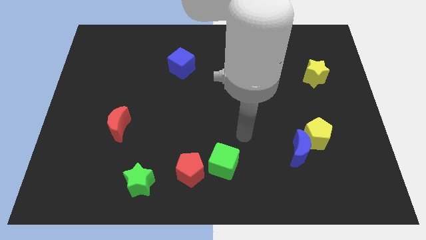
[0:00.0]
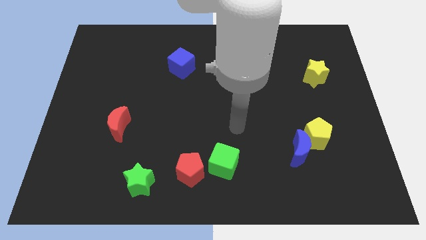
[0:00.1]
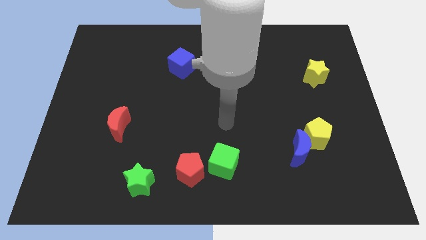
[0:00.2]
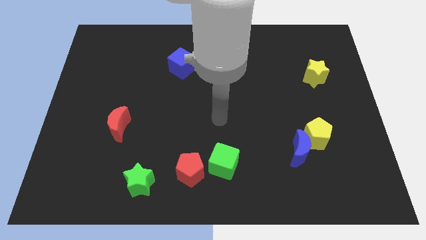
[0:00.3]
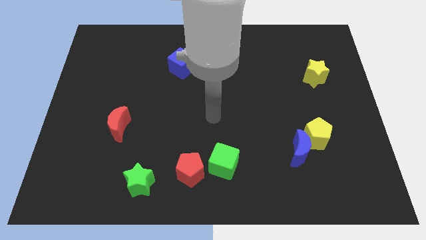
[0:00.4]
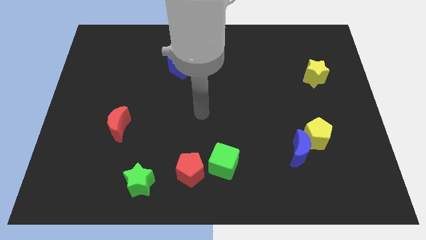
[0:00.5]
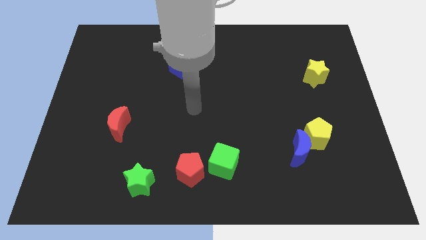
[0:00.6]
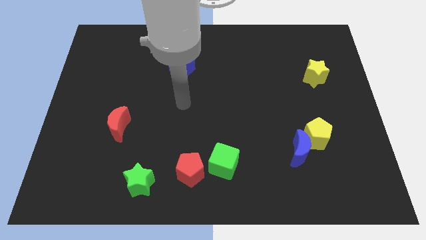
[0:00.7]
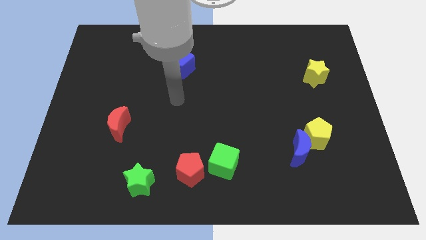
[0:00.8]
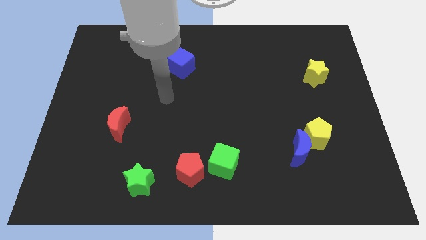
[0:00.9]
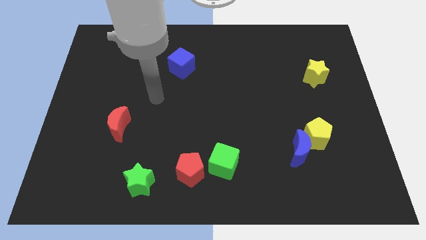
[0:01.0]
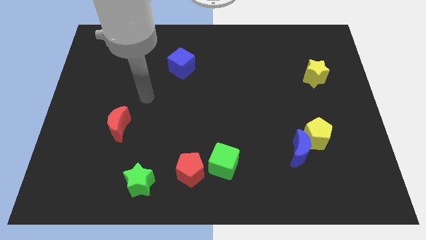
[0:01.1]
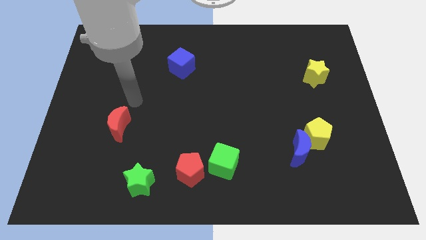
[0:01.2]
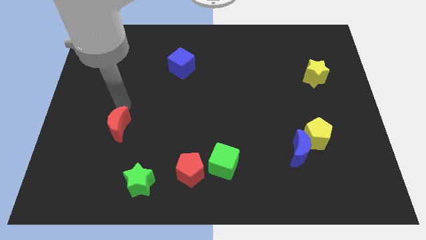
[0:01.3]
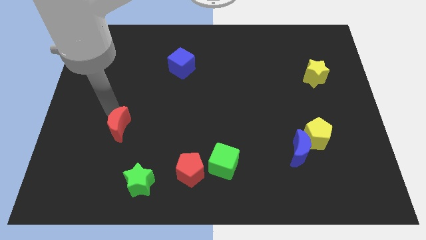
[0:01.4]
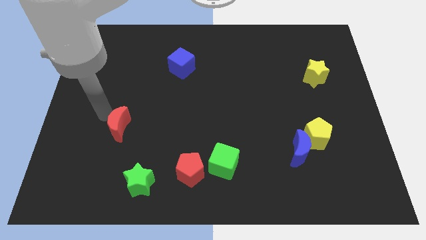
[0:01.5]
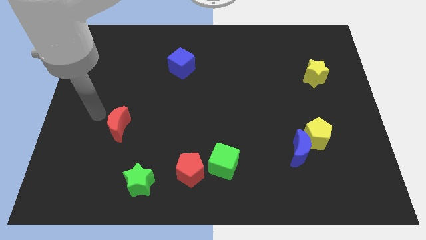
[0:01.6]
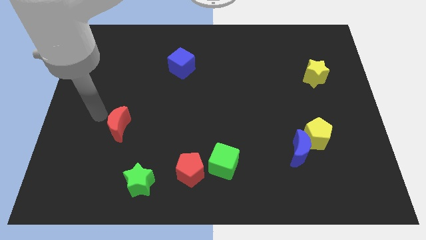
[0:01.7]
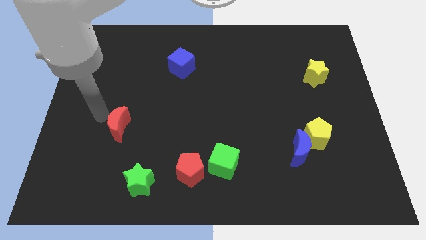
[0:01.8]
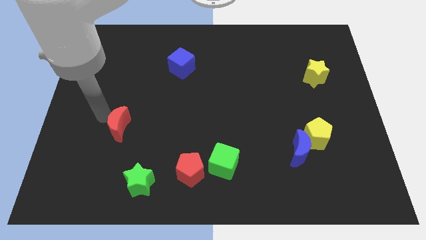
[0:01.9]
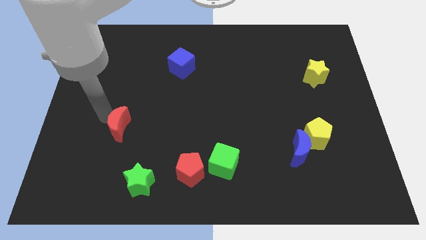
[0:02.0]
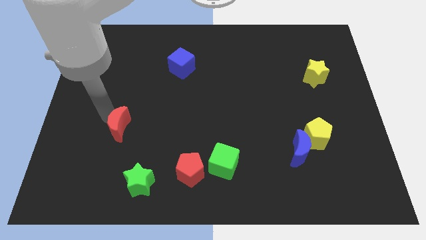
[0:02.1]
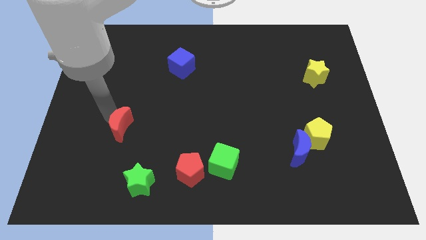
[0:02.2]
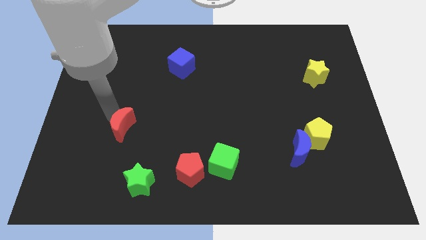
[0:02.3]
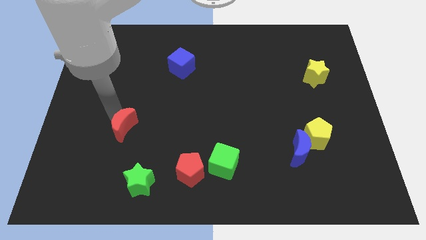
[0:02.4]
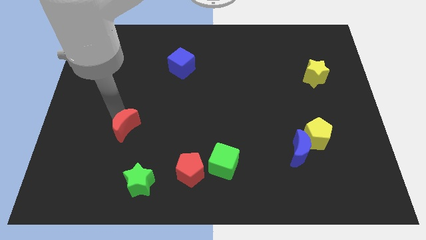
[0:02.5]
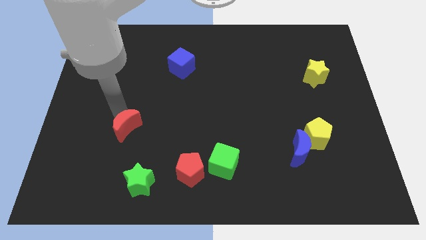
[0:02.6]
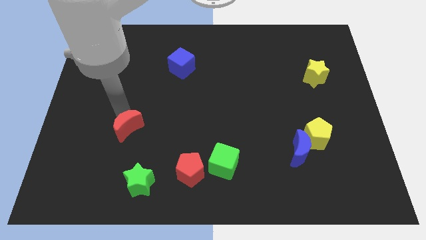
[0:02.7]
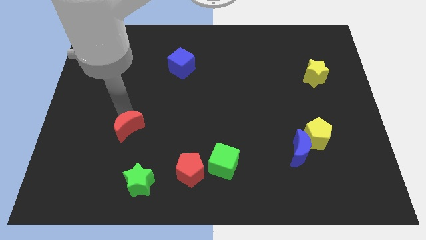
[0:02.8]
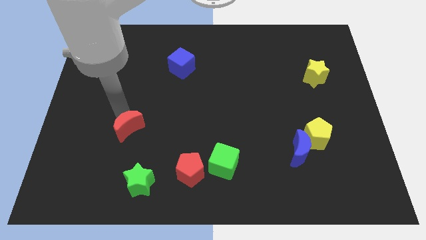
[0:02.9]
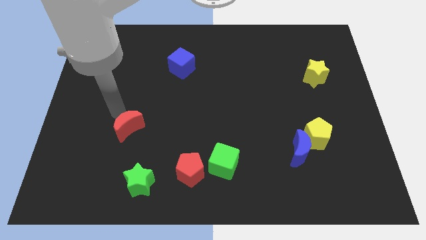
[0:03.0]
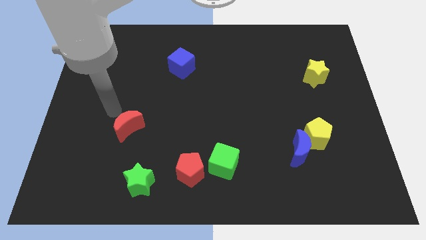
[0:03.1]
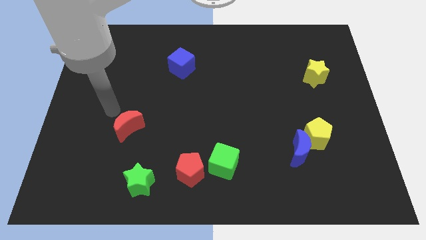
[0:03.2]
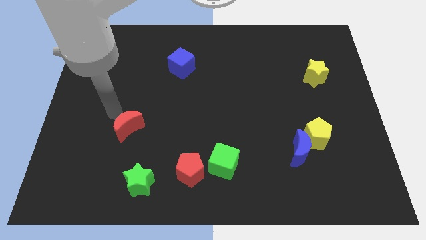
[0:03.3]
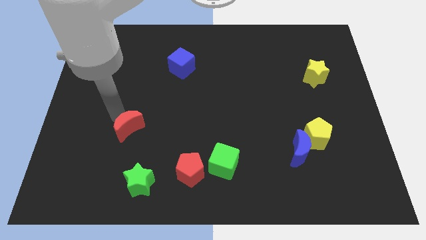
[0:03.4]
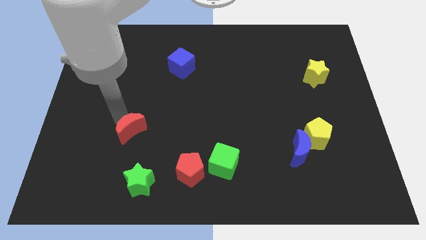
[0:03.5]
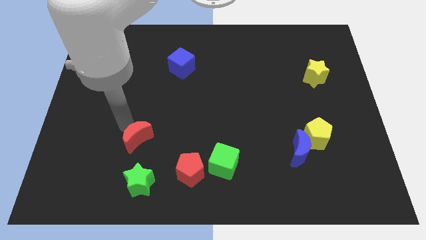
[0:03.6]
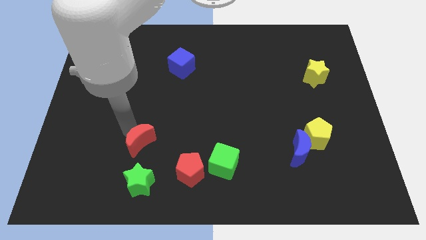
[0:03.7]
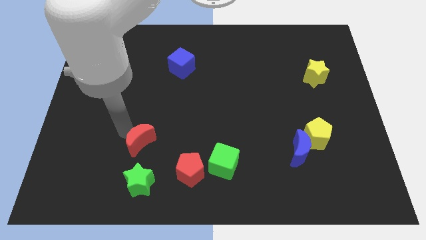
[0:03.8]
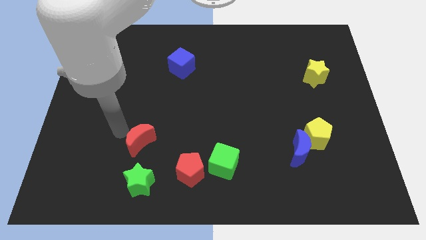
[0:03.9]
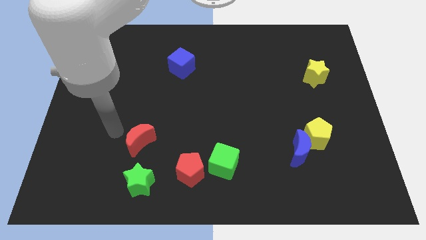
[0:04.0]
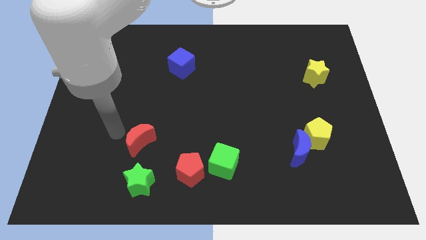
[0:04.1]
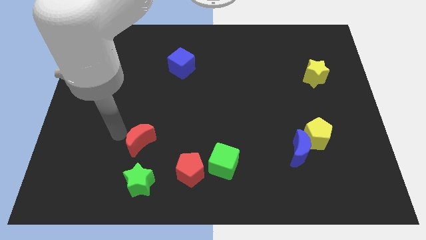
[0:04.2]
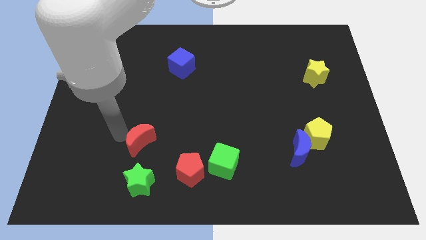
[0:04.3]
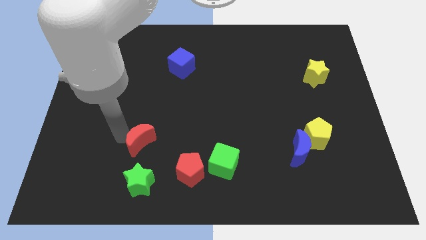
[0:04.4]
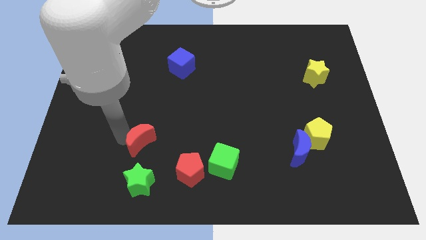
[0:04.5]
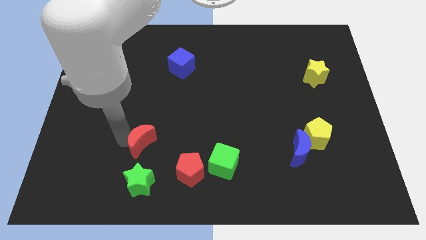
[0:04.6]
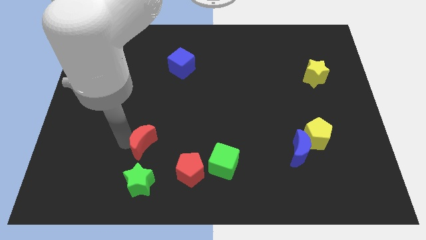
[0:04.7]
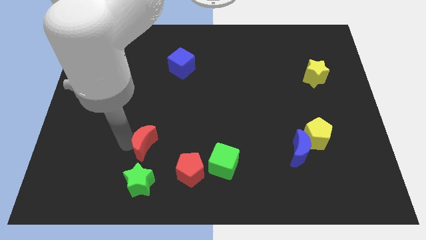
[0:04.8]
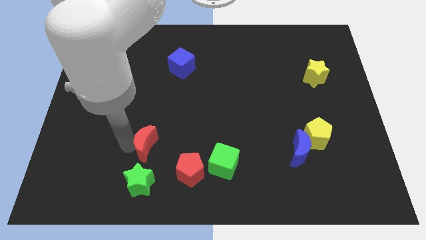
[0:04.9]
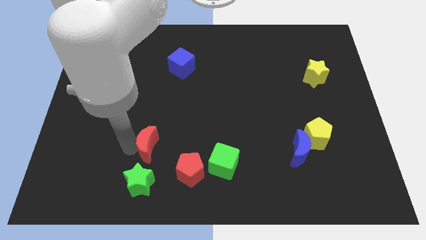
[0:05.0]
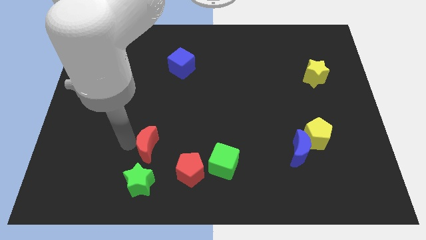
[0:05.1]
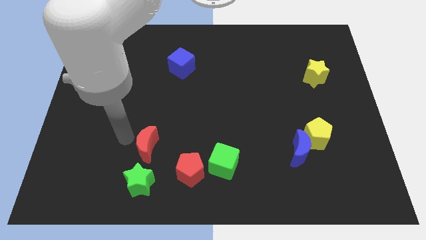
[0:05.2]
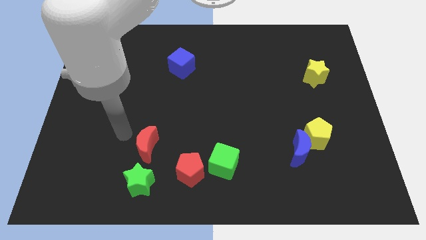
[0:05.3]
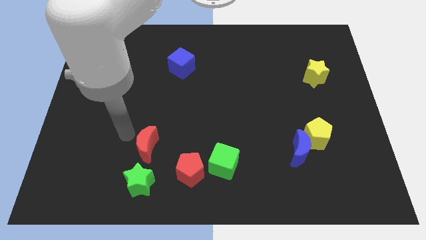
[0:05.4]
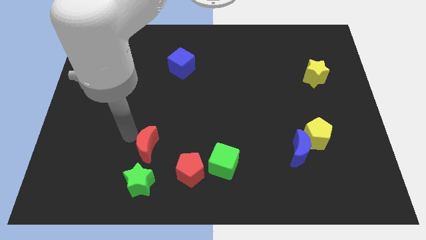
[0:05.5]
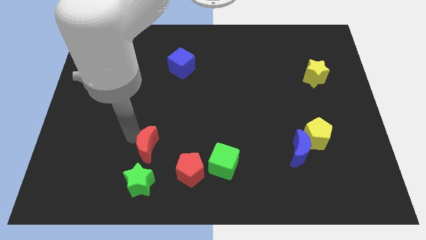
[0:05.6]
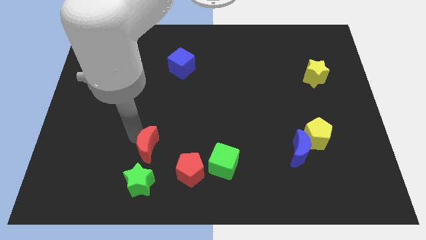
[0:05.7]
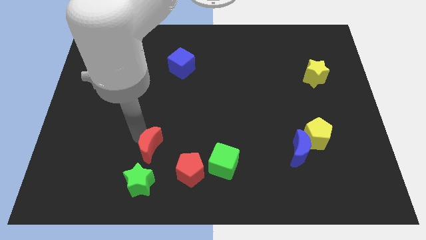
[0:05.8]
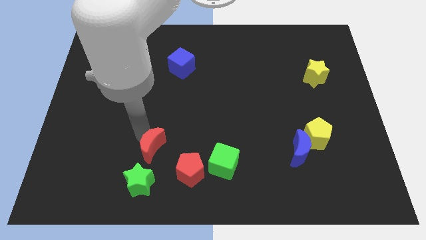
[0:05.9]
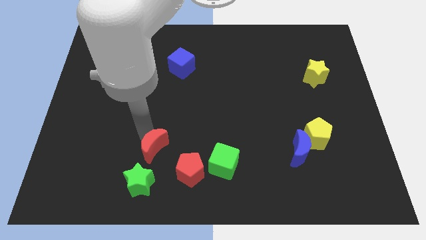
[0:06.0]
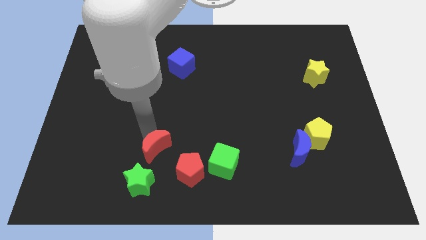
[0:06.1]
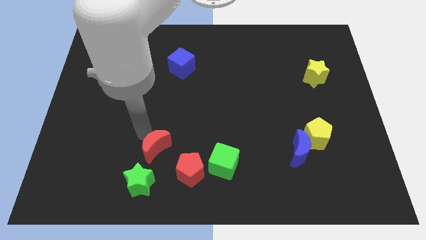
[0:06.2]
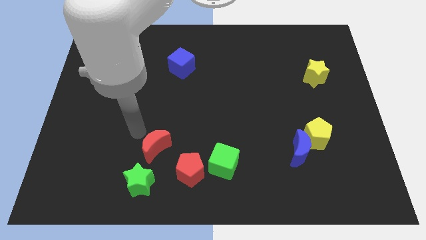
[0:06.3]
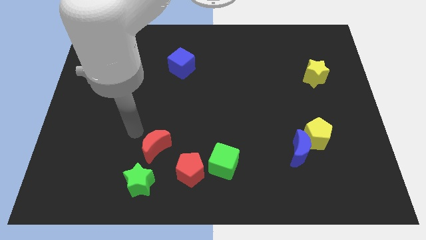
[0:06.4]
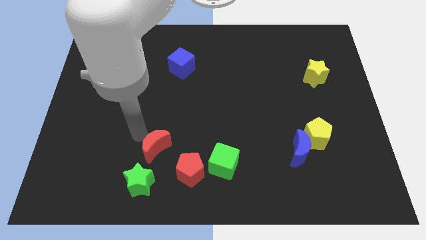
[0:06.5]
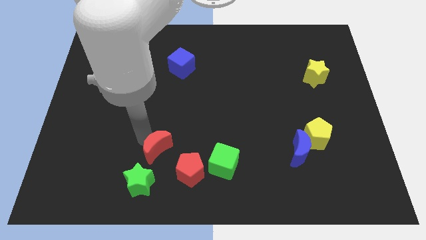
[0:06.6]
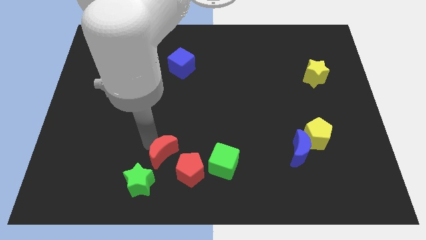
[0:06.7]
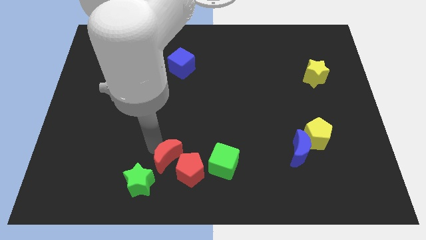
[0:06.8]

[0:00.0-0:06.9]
put the red moon to the red pentagon
